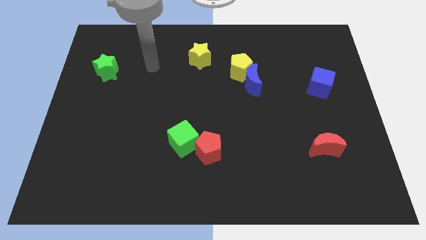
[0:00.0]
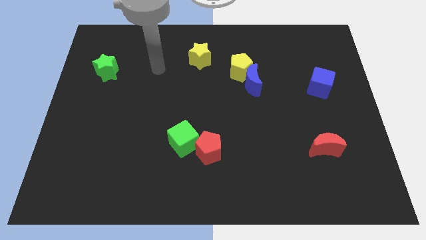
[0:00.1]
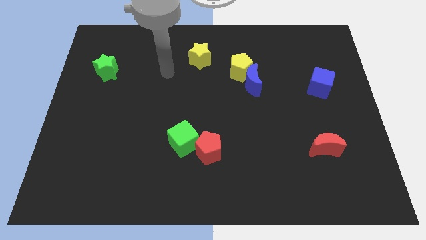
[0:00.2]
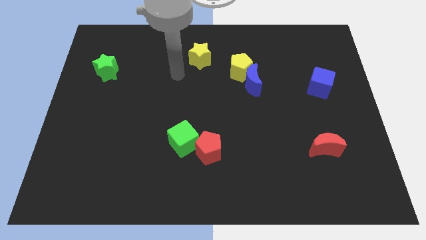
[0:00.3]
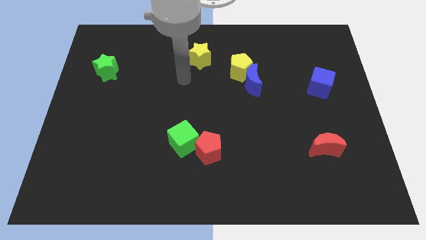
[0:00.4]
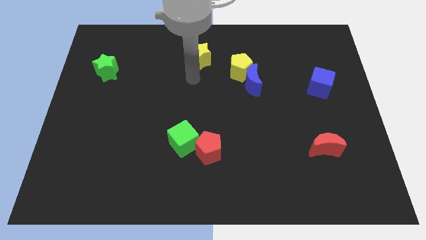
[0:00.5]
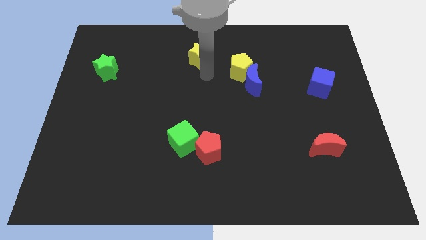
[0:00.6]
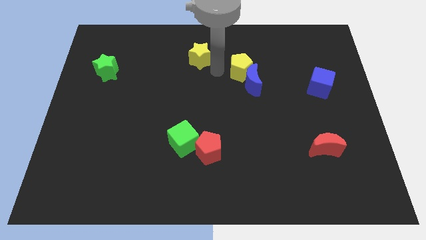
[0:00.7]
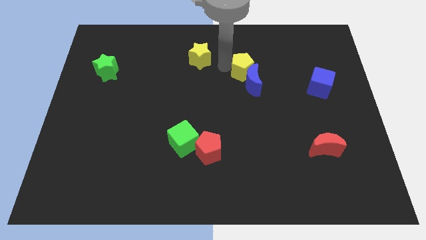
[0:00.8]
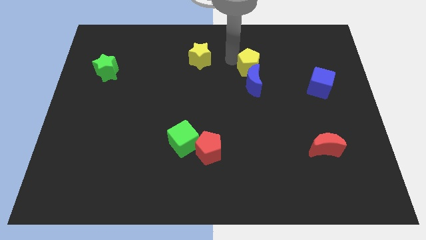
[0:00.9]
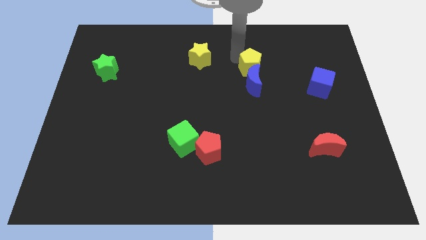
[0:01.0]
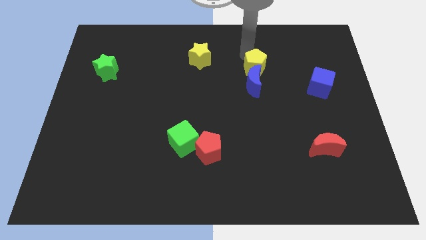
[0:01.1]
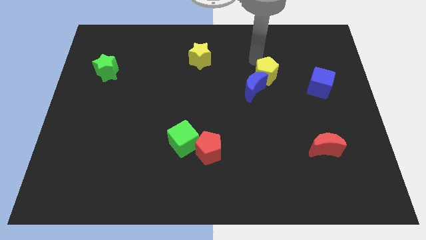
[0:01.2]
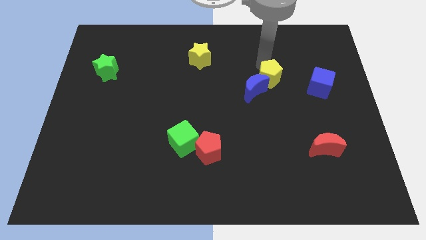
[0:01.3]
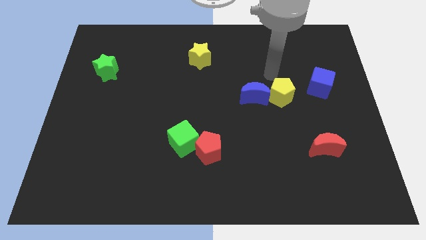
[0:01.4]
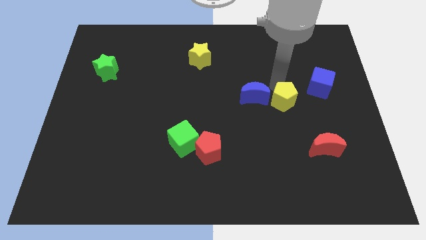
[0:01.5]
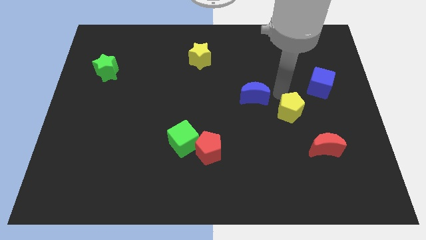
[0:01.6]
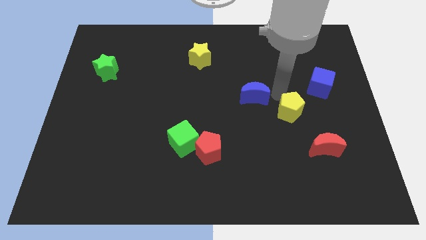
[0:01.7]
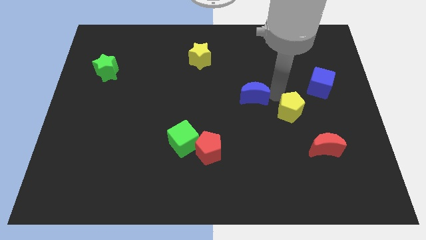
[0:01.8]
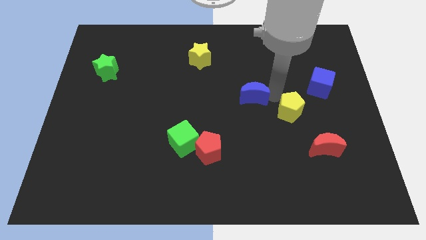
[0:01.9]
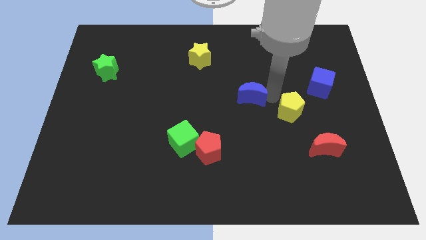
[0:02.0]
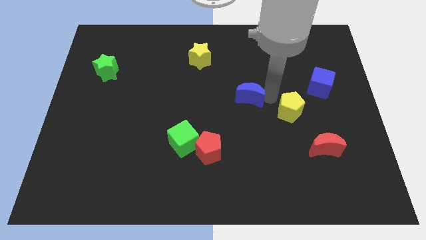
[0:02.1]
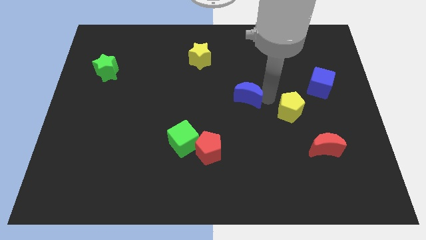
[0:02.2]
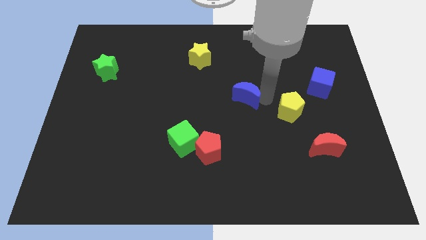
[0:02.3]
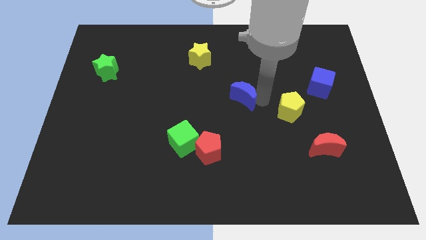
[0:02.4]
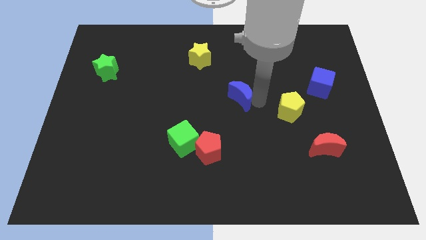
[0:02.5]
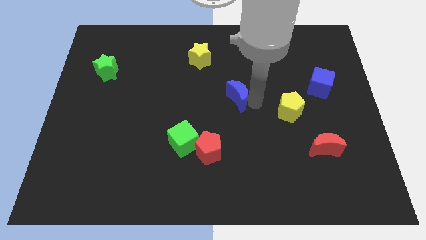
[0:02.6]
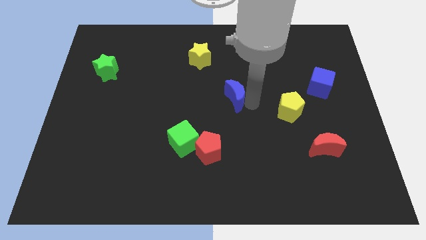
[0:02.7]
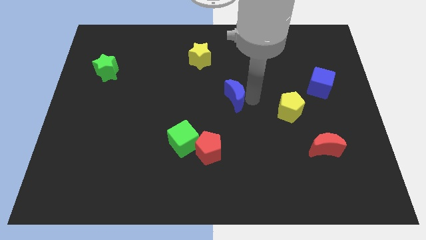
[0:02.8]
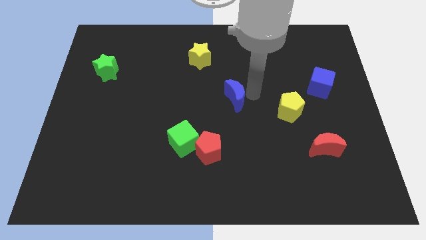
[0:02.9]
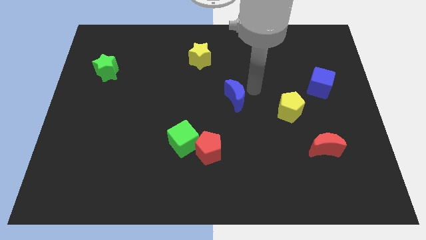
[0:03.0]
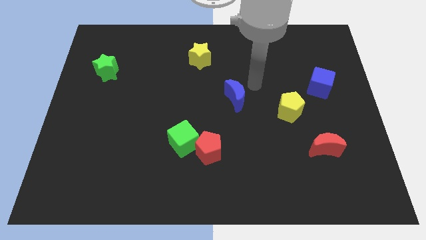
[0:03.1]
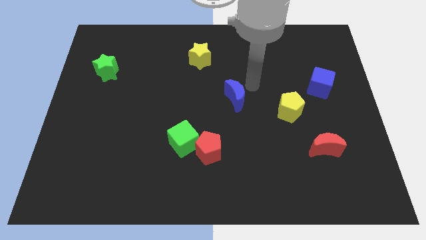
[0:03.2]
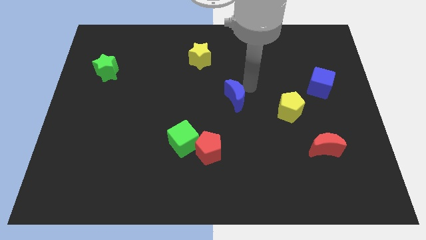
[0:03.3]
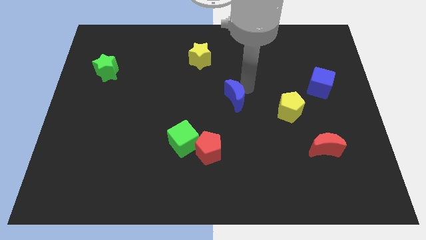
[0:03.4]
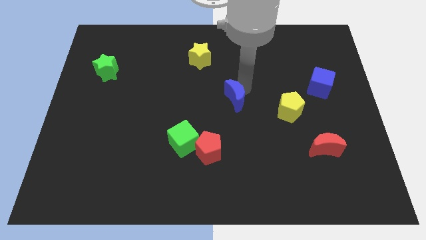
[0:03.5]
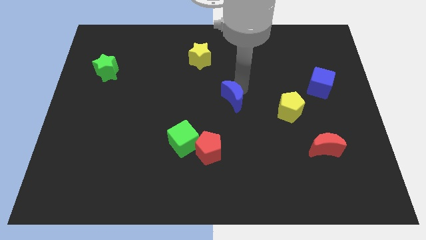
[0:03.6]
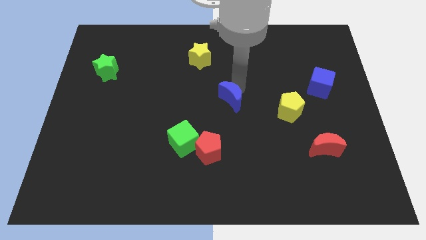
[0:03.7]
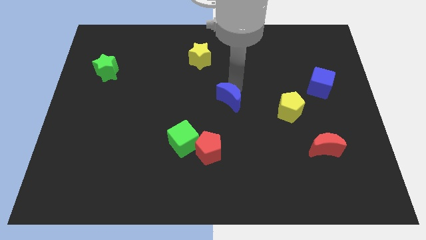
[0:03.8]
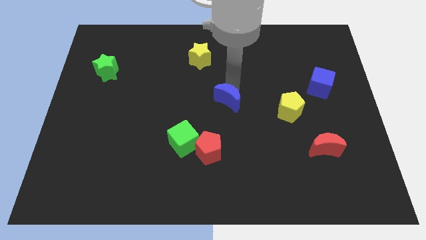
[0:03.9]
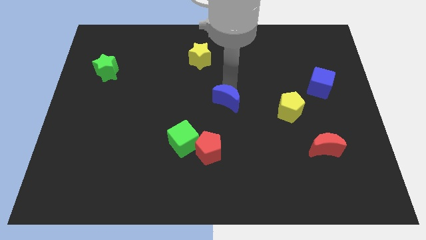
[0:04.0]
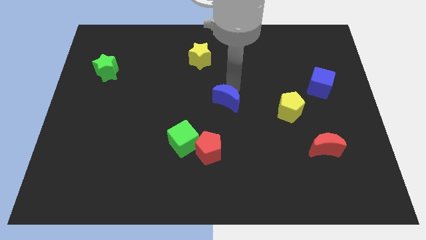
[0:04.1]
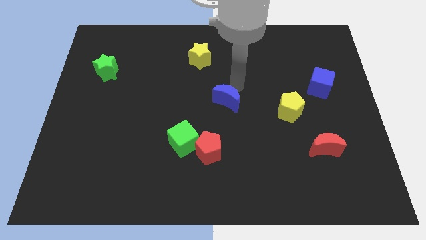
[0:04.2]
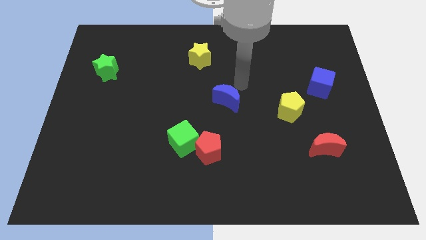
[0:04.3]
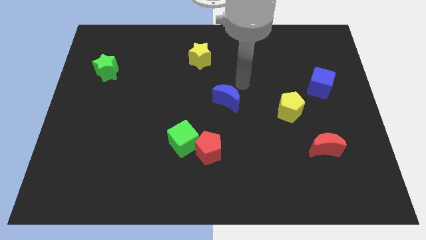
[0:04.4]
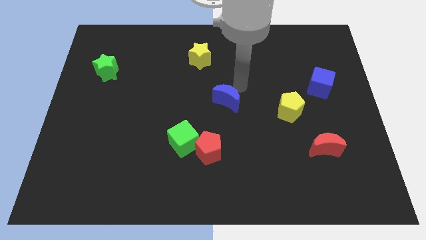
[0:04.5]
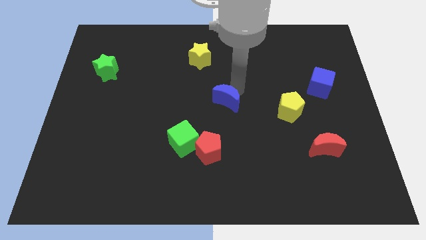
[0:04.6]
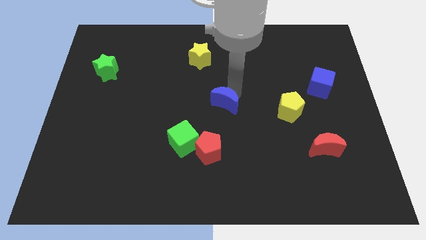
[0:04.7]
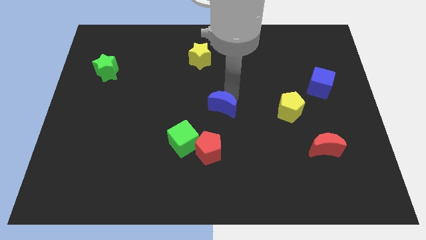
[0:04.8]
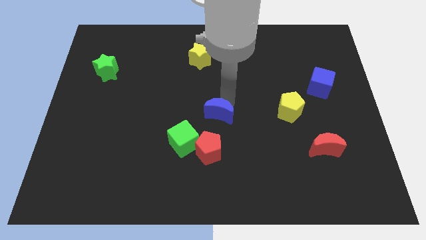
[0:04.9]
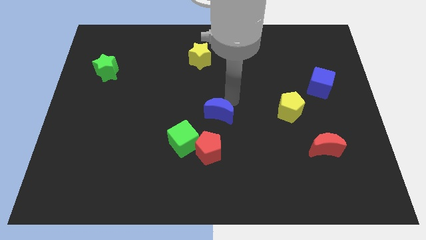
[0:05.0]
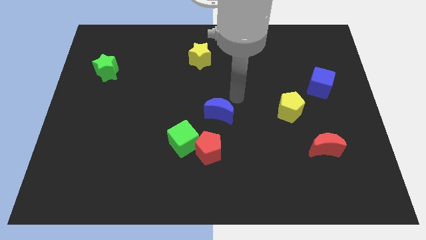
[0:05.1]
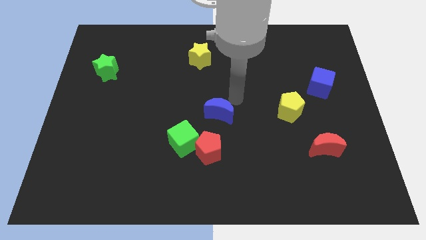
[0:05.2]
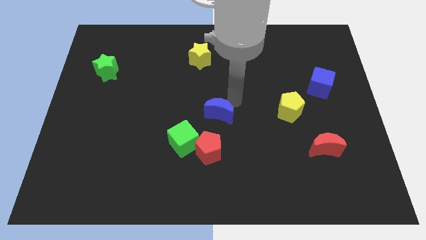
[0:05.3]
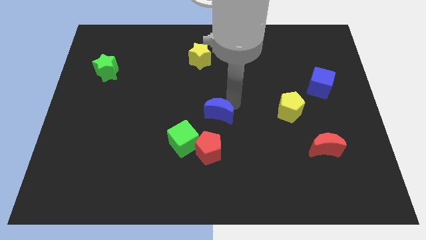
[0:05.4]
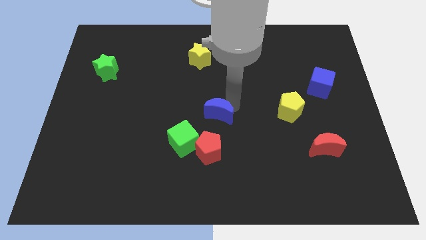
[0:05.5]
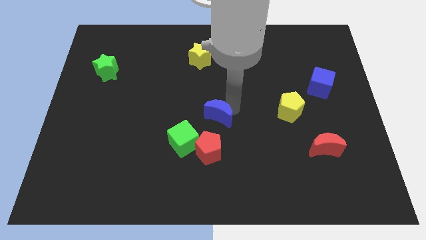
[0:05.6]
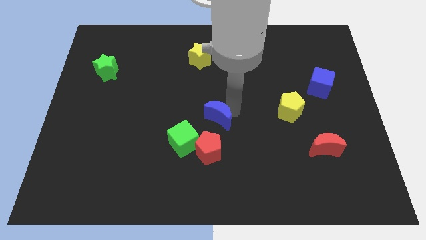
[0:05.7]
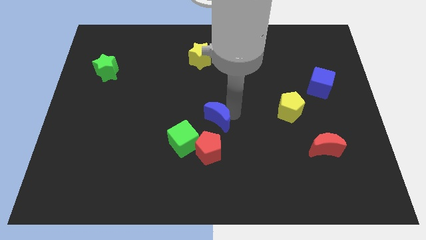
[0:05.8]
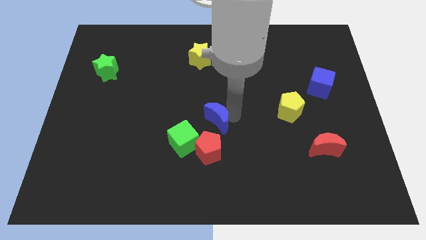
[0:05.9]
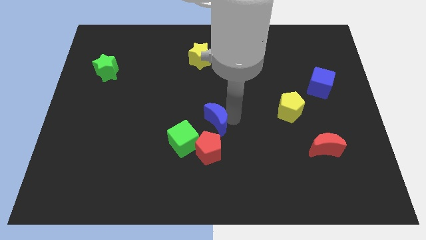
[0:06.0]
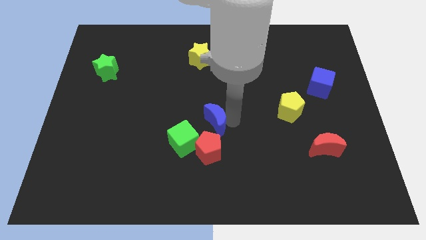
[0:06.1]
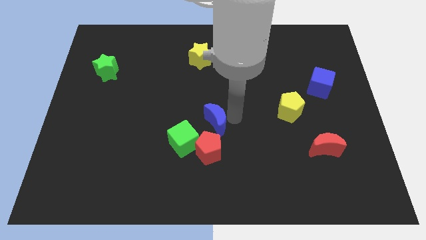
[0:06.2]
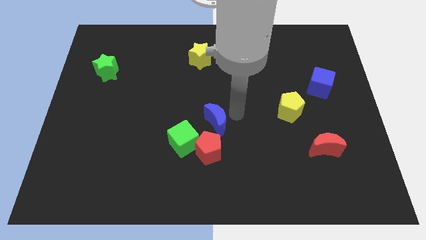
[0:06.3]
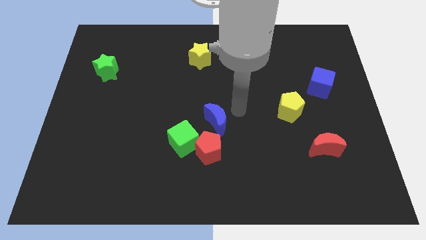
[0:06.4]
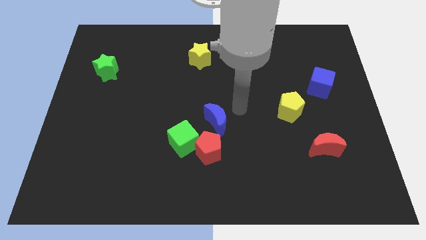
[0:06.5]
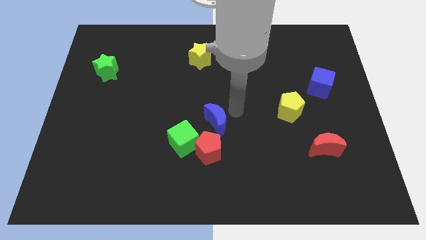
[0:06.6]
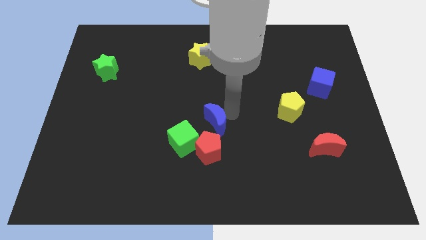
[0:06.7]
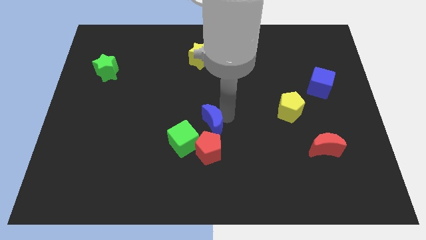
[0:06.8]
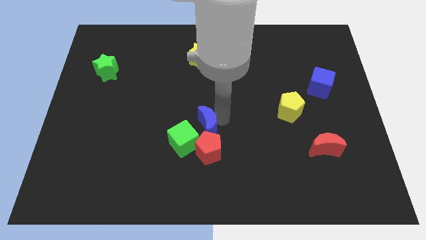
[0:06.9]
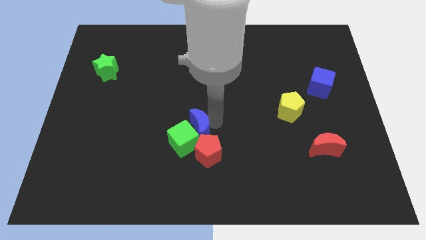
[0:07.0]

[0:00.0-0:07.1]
push the blue moon to the green cube
